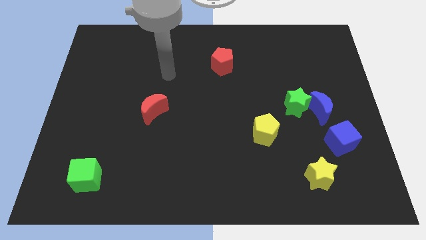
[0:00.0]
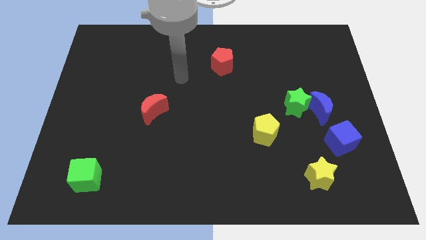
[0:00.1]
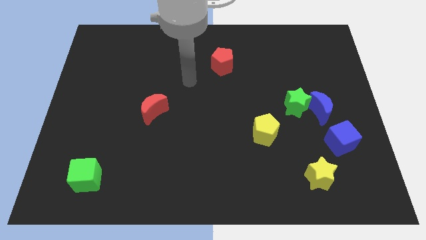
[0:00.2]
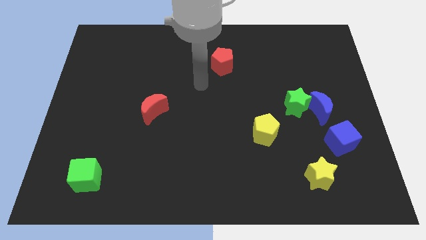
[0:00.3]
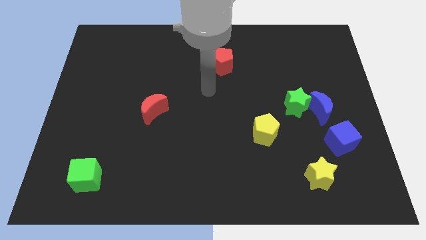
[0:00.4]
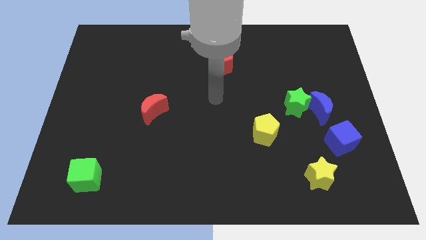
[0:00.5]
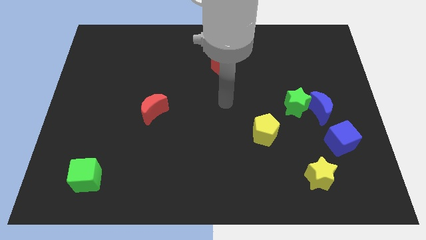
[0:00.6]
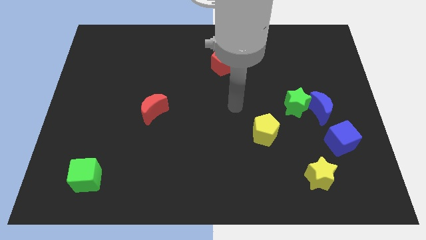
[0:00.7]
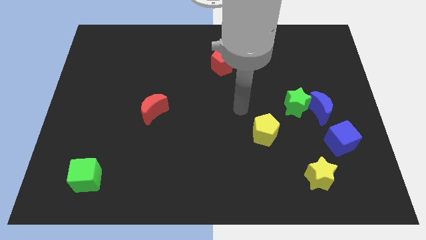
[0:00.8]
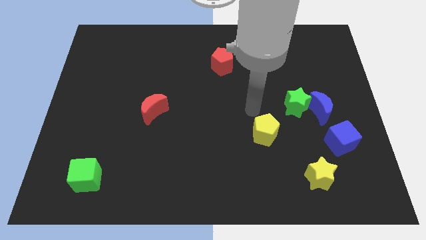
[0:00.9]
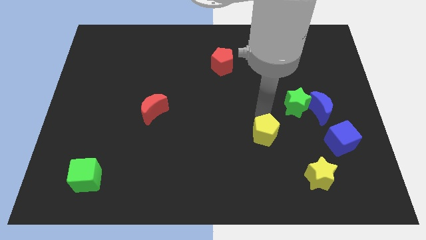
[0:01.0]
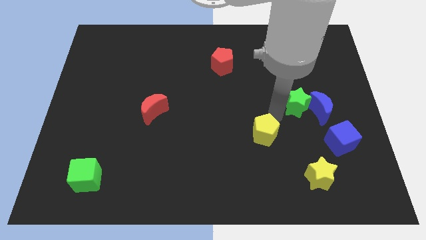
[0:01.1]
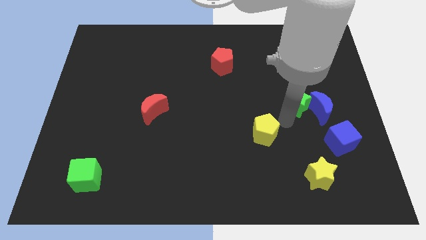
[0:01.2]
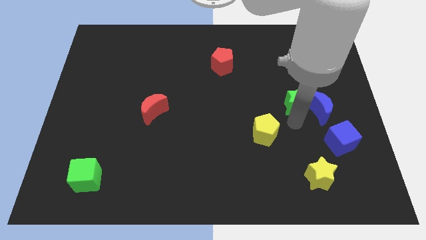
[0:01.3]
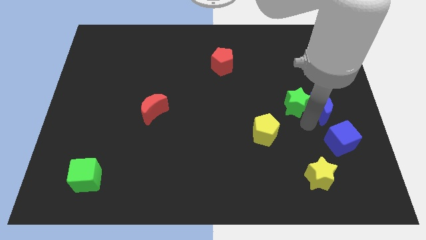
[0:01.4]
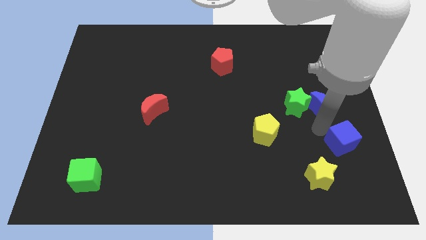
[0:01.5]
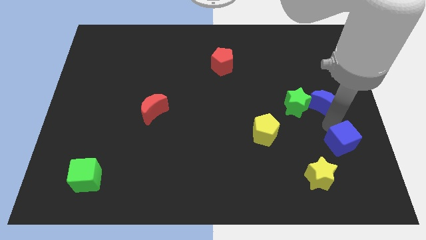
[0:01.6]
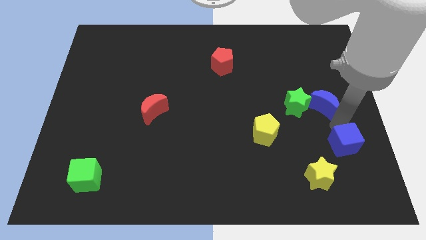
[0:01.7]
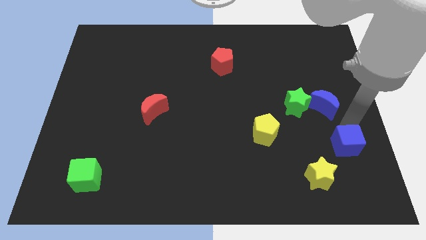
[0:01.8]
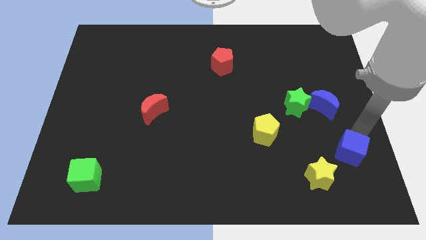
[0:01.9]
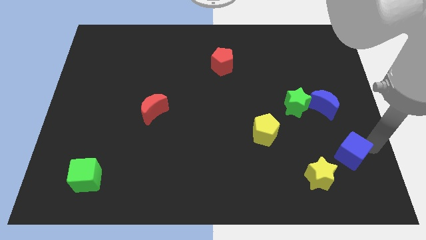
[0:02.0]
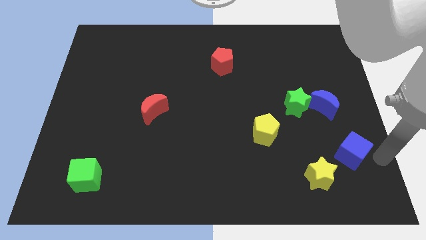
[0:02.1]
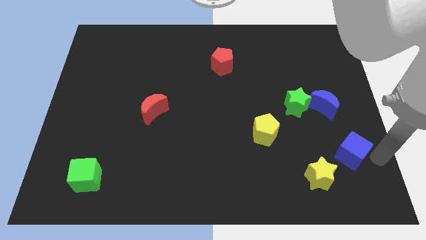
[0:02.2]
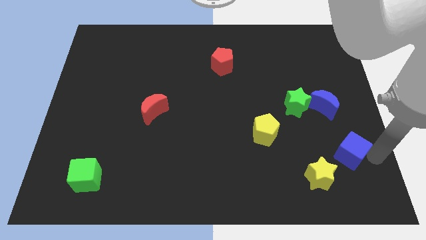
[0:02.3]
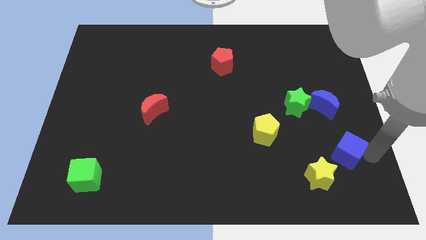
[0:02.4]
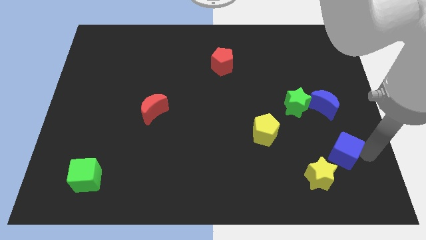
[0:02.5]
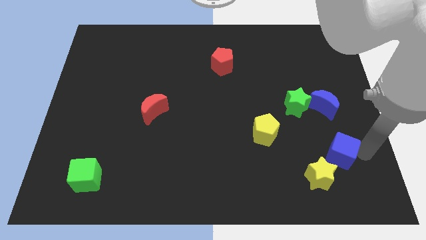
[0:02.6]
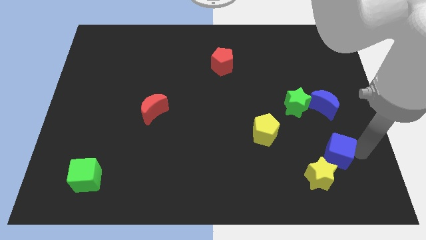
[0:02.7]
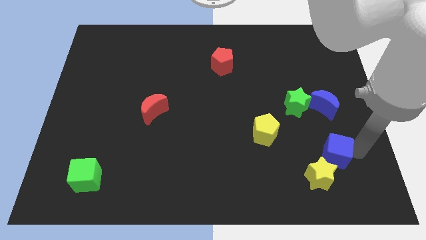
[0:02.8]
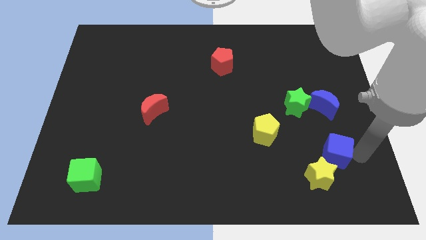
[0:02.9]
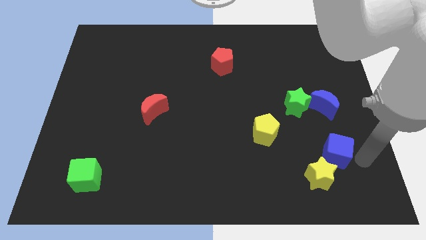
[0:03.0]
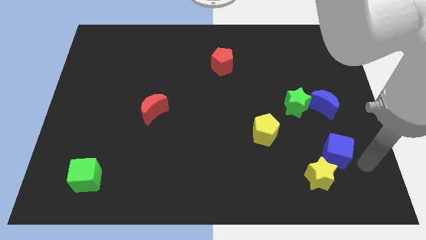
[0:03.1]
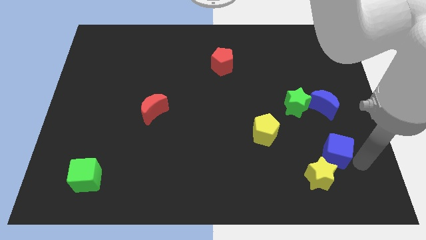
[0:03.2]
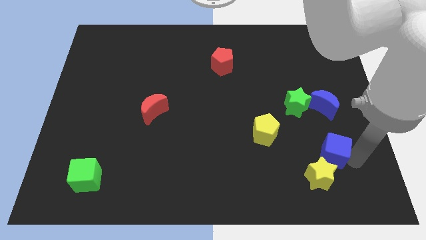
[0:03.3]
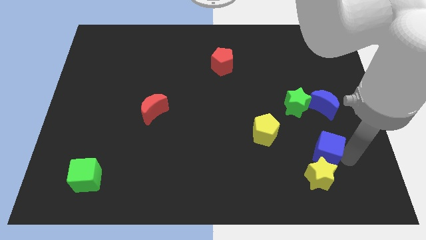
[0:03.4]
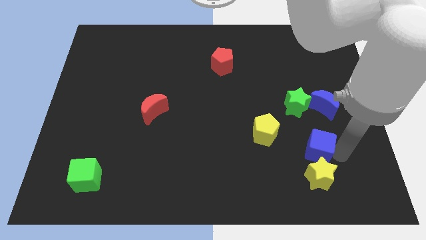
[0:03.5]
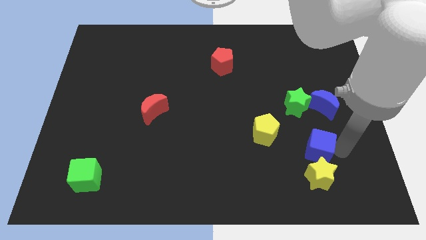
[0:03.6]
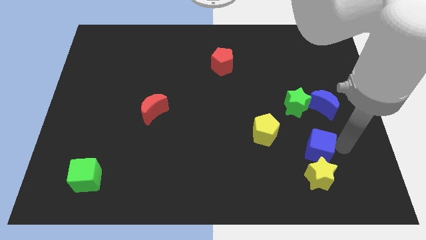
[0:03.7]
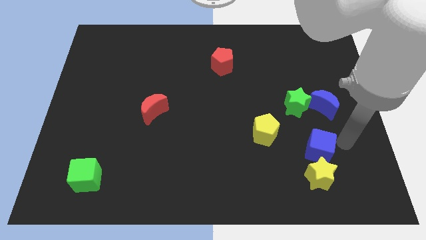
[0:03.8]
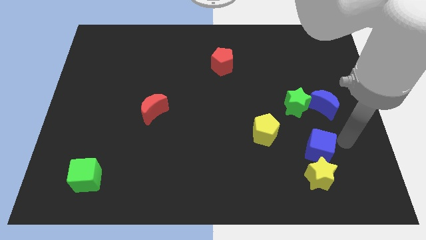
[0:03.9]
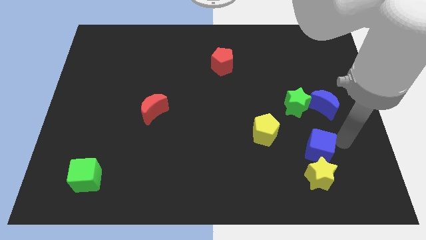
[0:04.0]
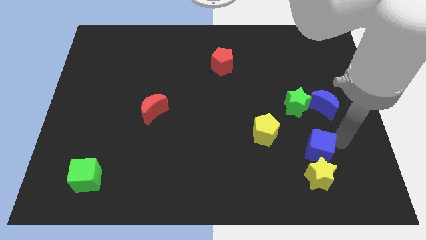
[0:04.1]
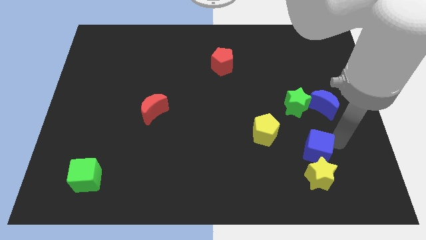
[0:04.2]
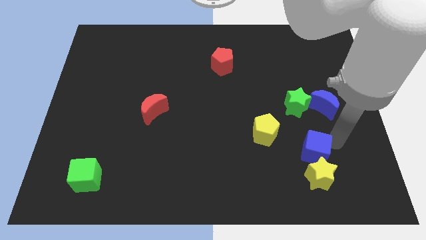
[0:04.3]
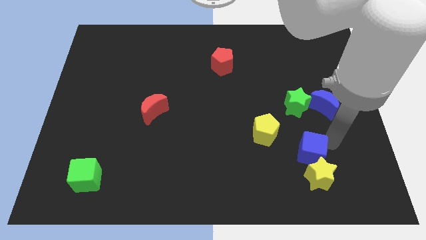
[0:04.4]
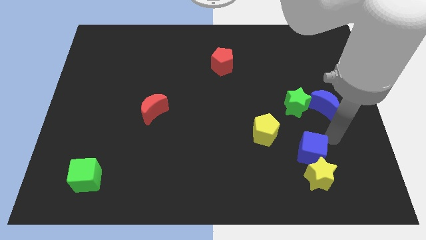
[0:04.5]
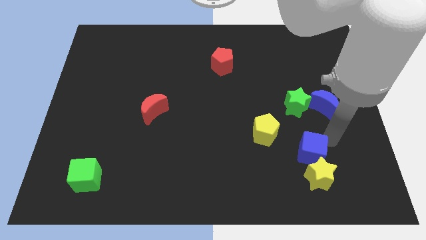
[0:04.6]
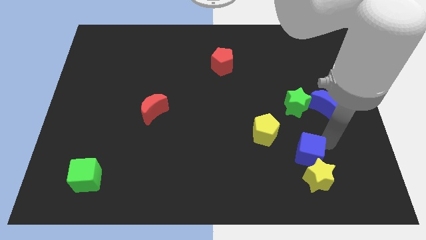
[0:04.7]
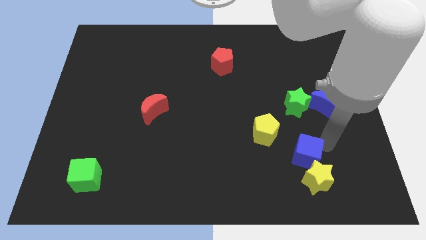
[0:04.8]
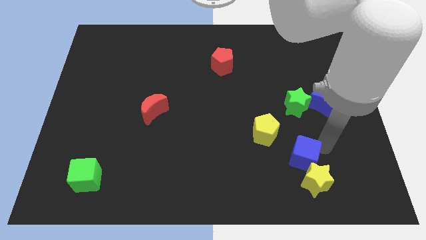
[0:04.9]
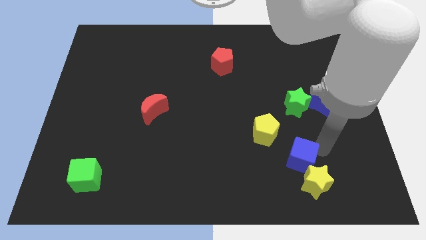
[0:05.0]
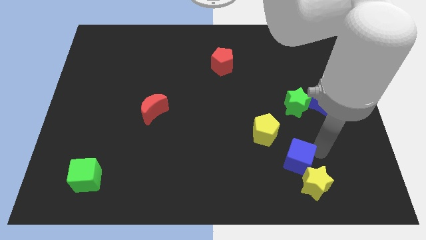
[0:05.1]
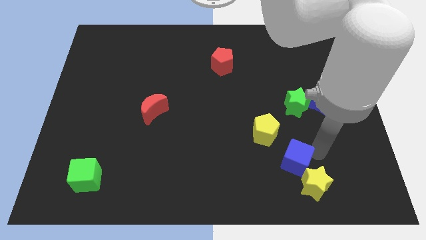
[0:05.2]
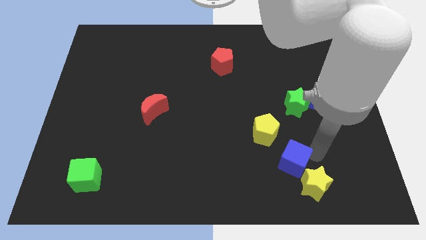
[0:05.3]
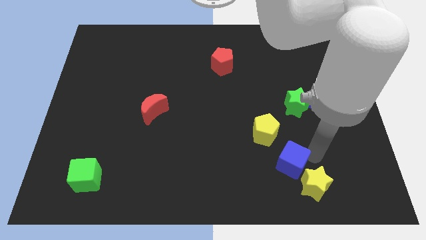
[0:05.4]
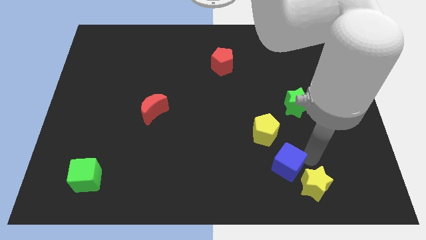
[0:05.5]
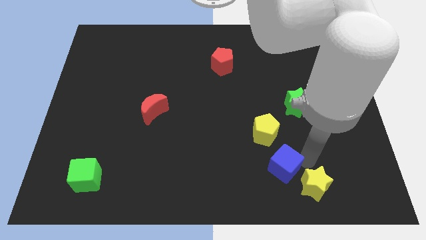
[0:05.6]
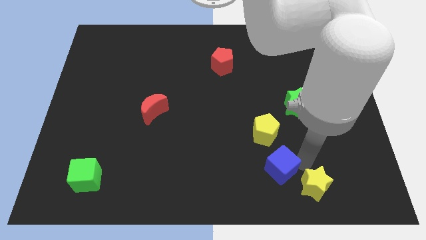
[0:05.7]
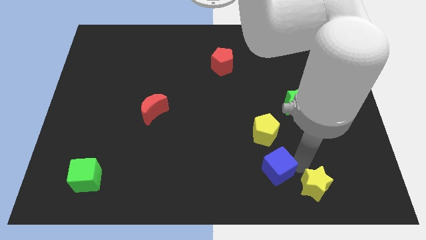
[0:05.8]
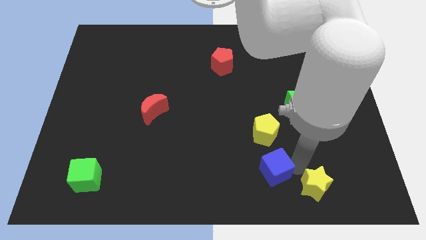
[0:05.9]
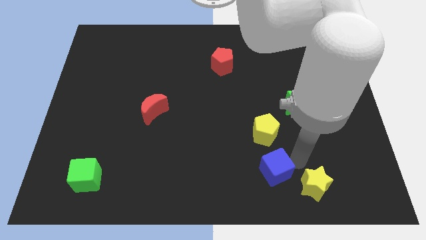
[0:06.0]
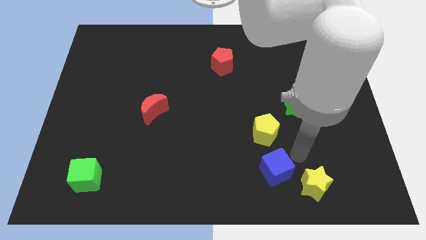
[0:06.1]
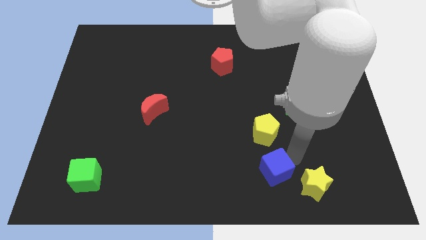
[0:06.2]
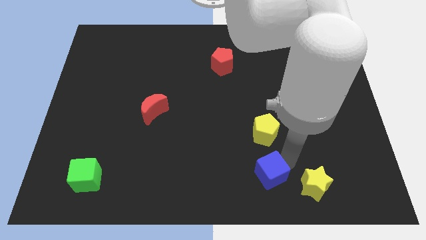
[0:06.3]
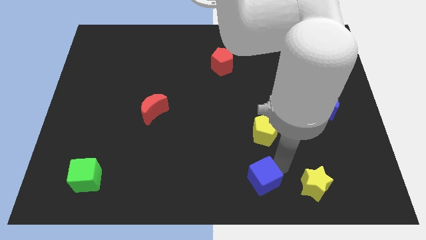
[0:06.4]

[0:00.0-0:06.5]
move the blue cube to the bottom
